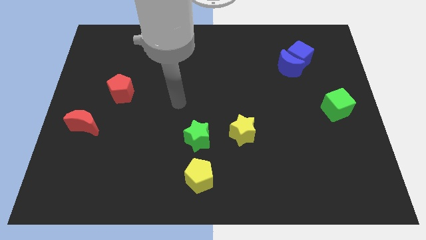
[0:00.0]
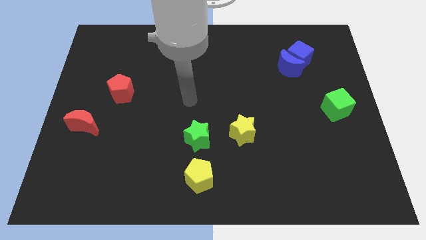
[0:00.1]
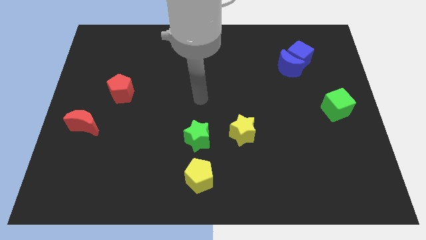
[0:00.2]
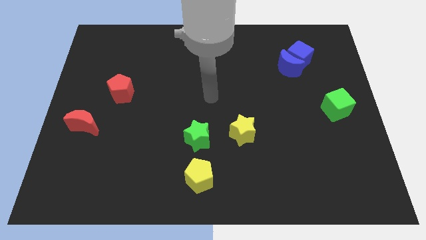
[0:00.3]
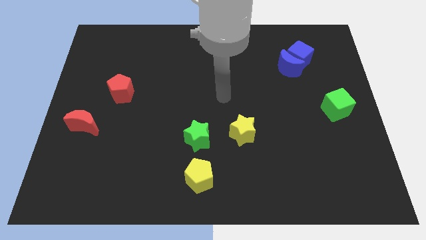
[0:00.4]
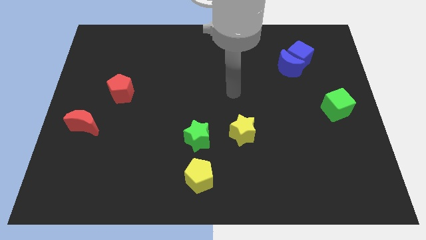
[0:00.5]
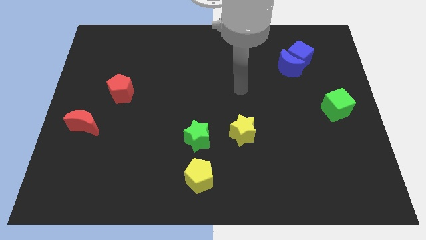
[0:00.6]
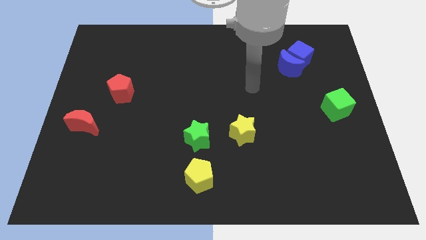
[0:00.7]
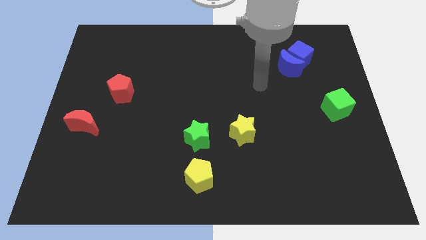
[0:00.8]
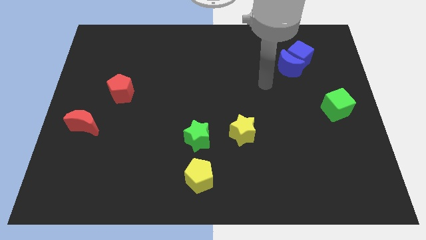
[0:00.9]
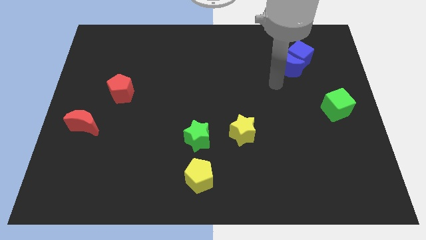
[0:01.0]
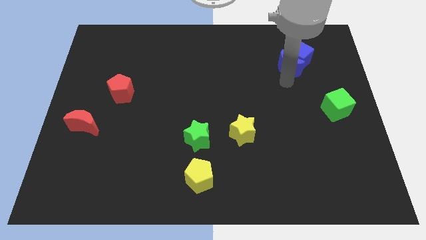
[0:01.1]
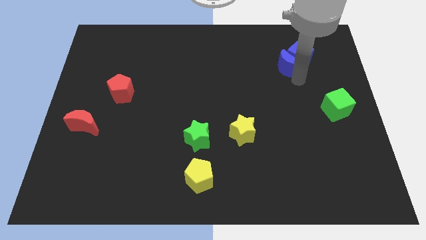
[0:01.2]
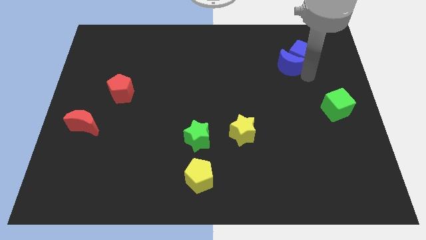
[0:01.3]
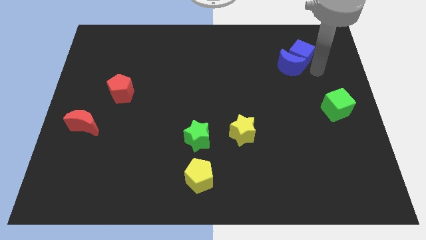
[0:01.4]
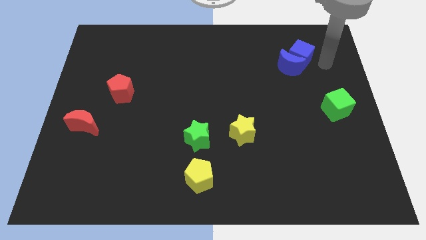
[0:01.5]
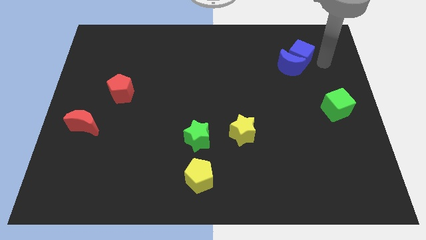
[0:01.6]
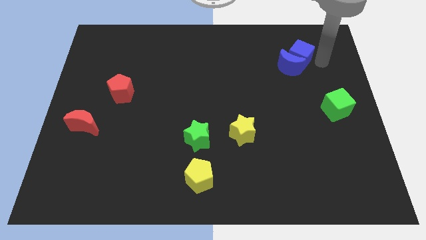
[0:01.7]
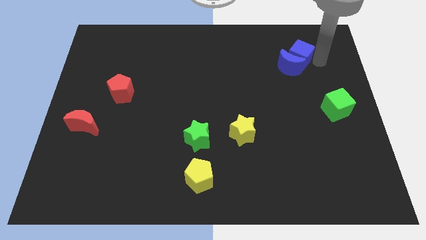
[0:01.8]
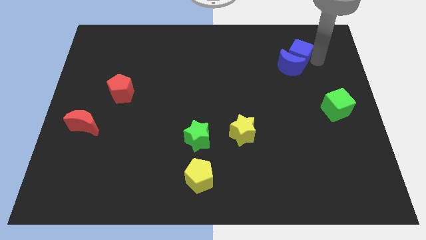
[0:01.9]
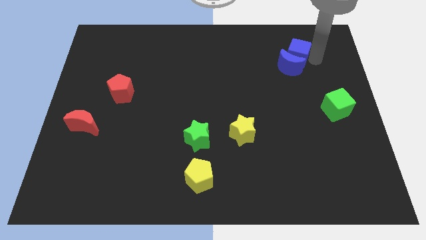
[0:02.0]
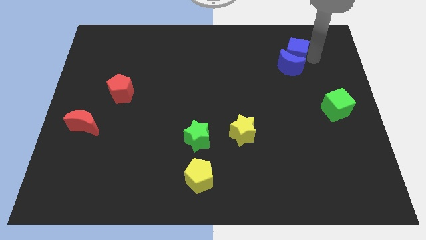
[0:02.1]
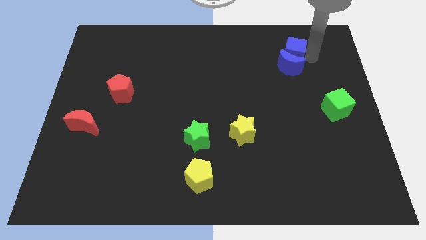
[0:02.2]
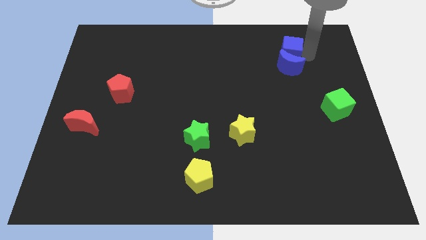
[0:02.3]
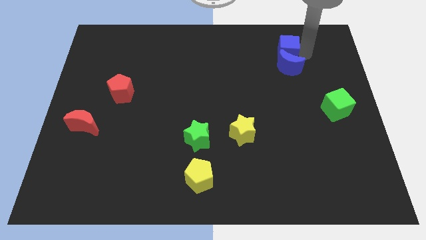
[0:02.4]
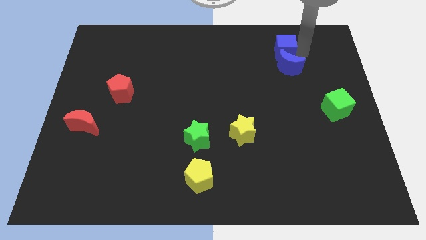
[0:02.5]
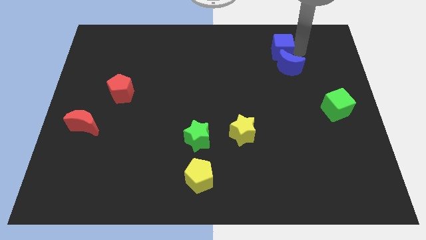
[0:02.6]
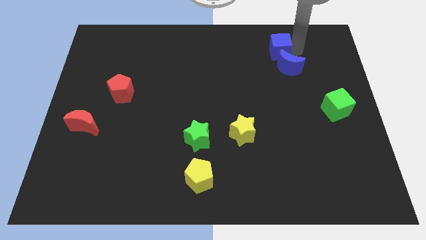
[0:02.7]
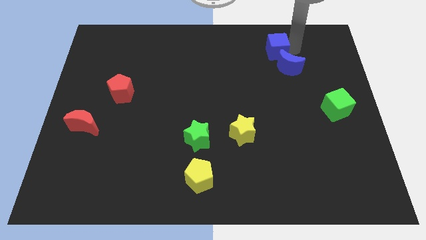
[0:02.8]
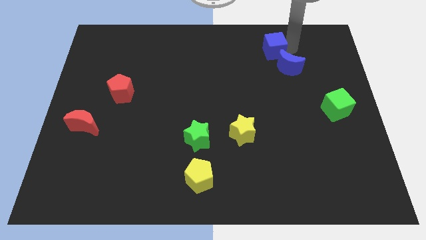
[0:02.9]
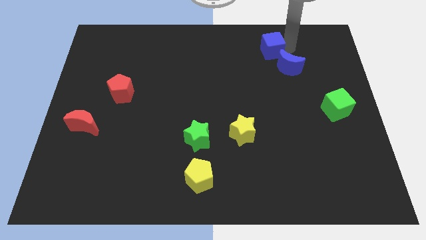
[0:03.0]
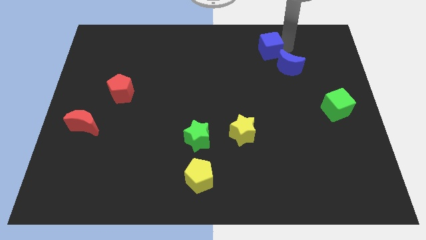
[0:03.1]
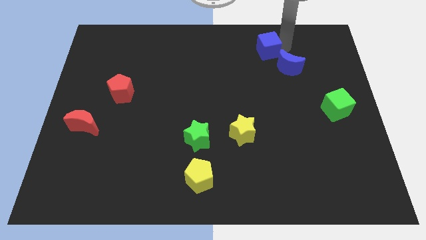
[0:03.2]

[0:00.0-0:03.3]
push the blue cube a little bit left

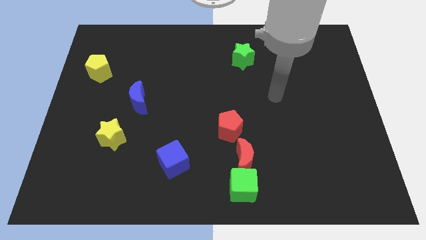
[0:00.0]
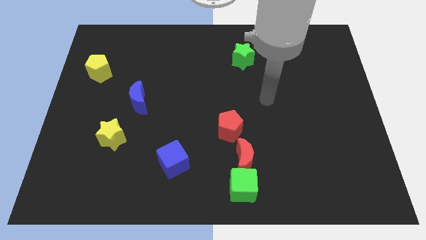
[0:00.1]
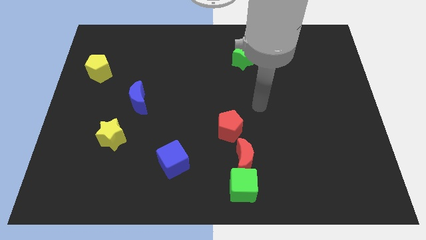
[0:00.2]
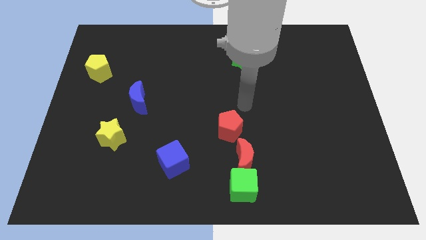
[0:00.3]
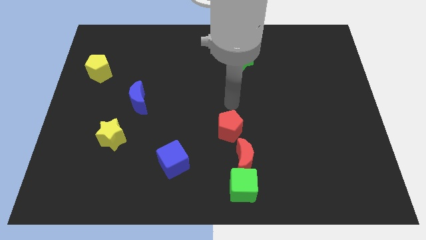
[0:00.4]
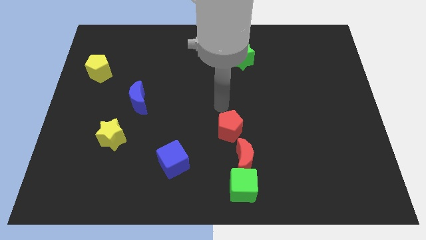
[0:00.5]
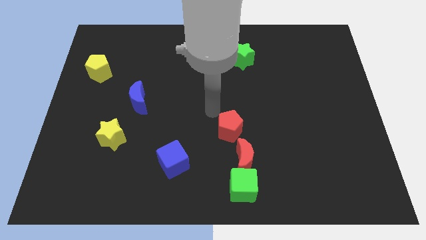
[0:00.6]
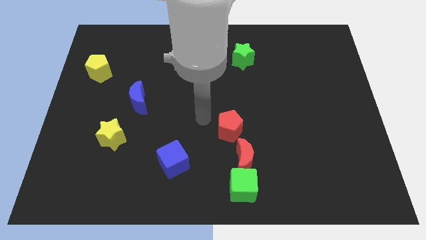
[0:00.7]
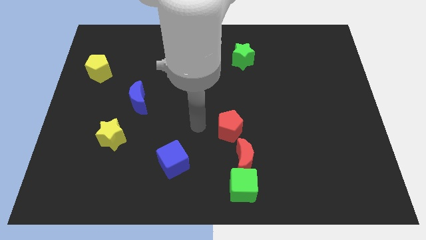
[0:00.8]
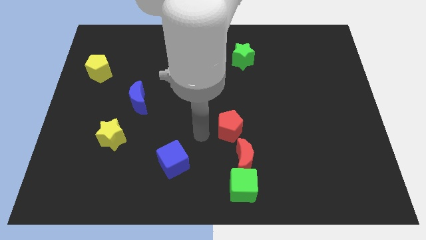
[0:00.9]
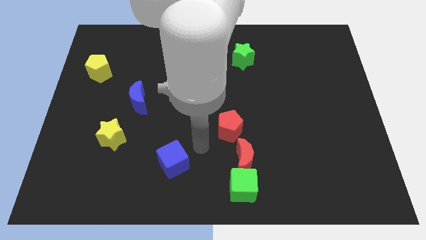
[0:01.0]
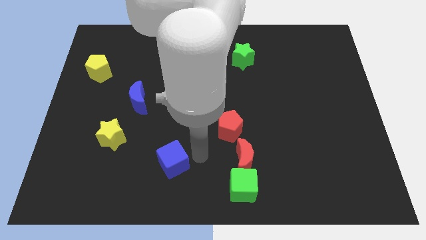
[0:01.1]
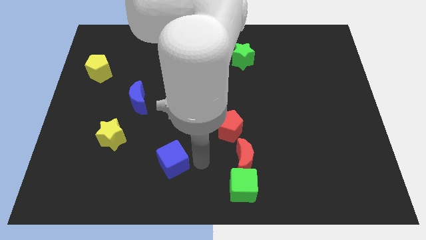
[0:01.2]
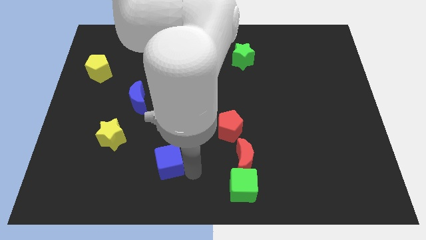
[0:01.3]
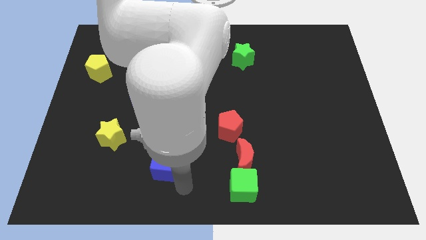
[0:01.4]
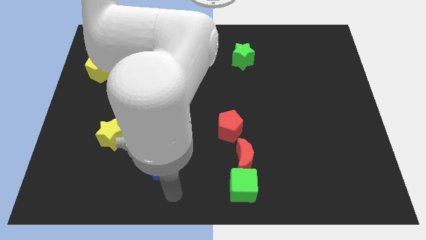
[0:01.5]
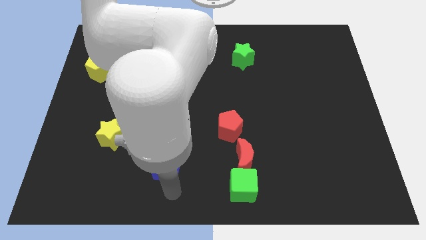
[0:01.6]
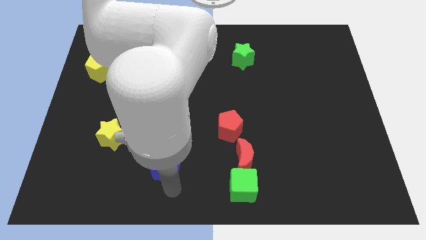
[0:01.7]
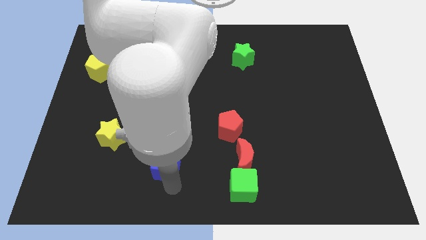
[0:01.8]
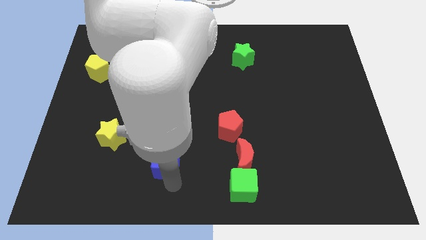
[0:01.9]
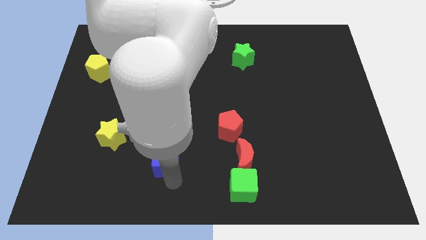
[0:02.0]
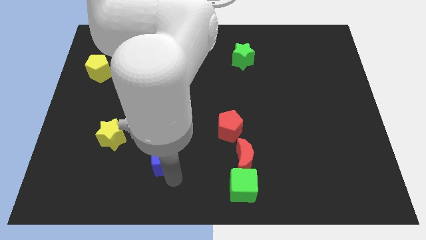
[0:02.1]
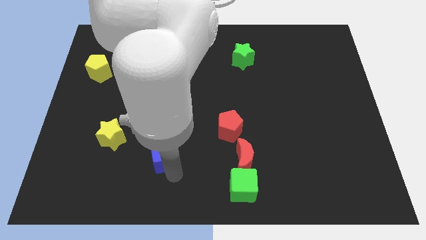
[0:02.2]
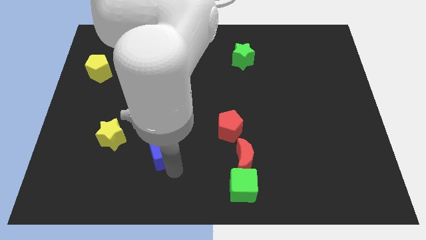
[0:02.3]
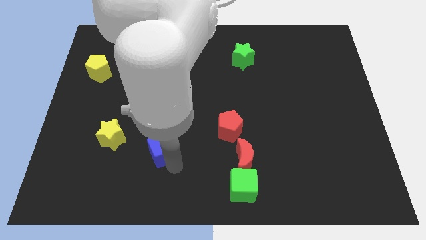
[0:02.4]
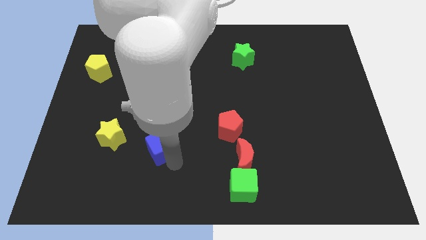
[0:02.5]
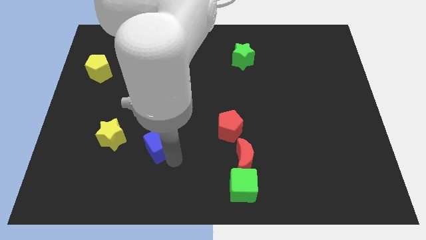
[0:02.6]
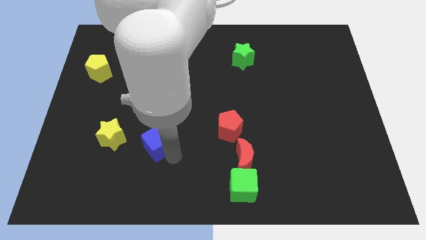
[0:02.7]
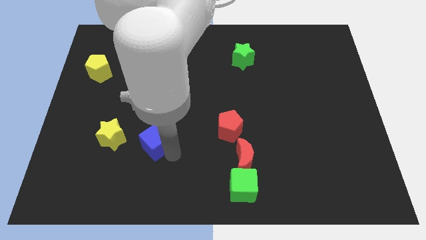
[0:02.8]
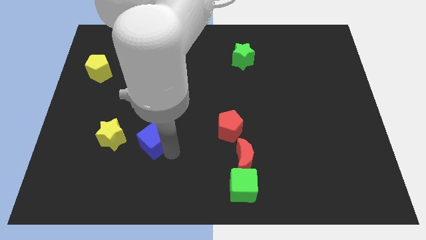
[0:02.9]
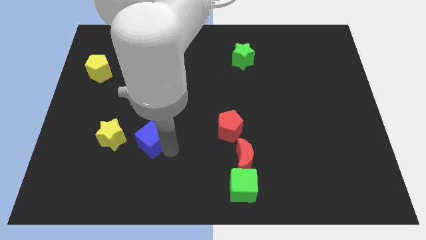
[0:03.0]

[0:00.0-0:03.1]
push the blue cube upwards and left diagonally slightly

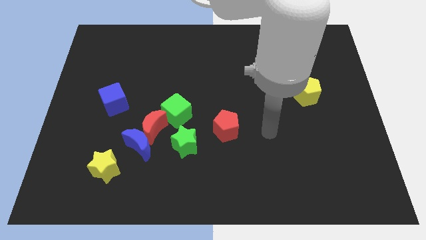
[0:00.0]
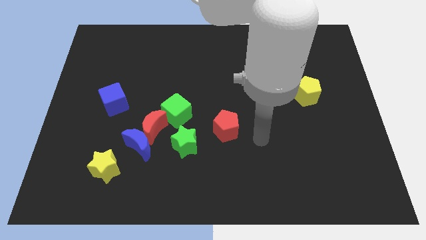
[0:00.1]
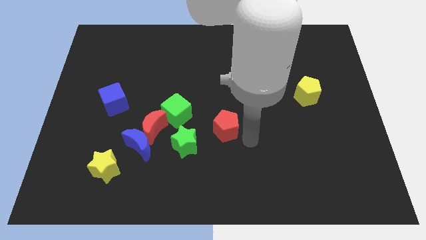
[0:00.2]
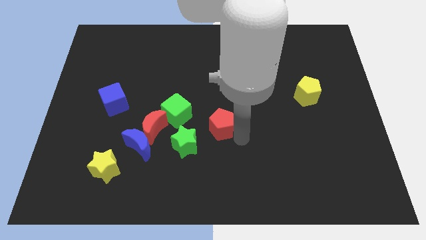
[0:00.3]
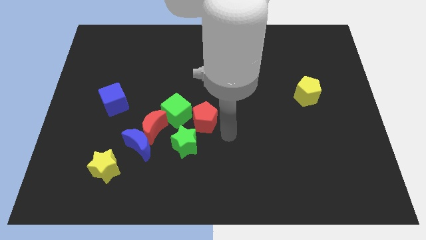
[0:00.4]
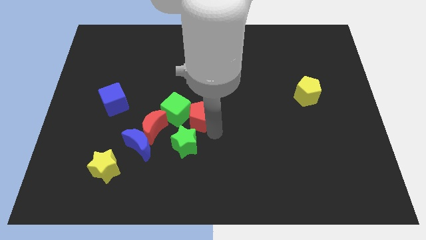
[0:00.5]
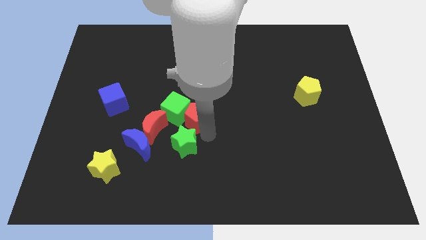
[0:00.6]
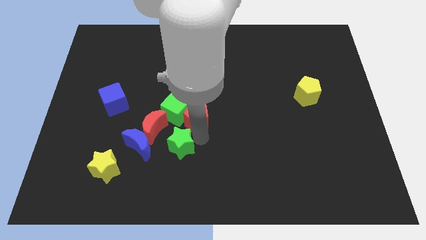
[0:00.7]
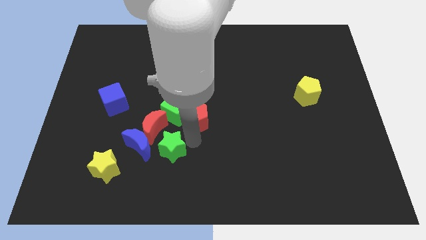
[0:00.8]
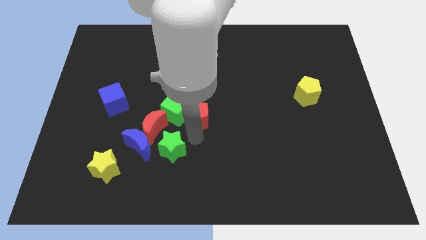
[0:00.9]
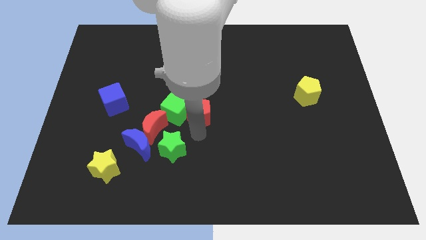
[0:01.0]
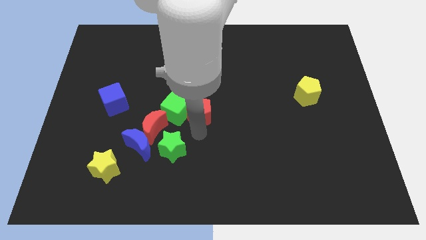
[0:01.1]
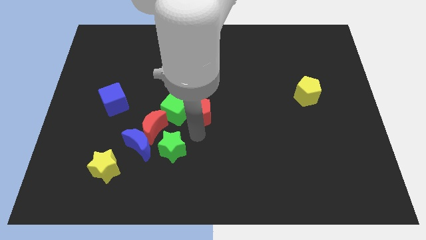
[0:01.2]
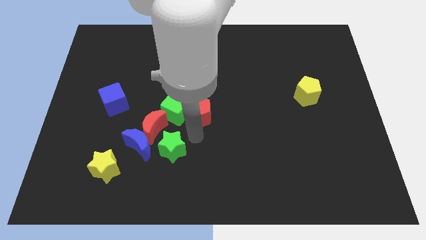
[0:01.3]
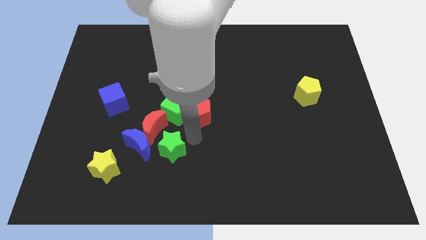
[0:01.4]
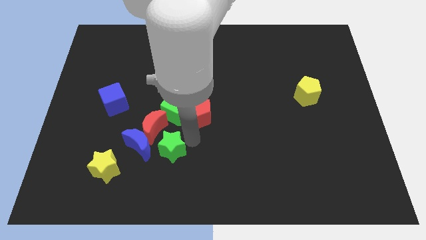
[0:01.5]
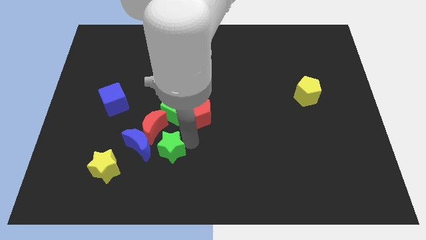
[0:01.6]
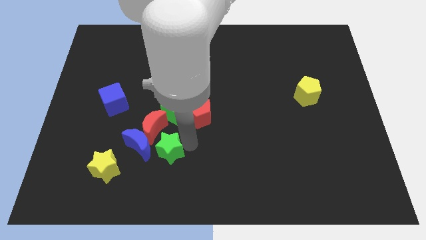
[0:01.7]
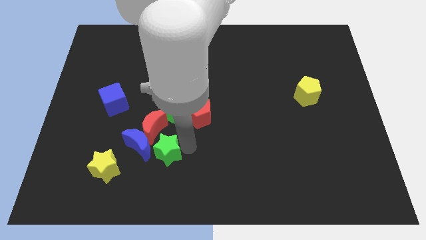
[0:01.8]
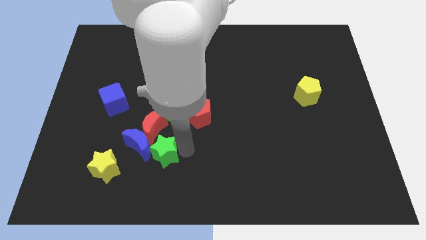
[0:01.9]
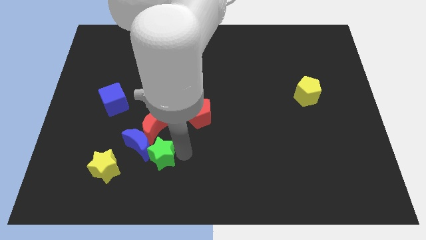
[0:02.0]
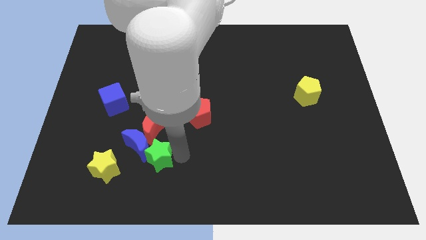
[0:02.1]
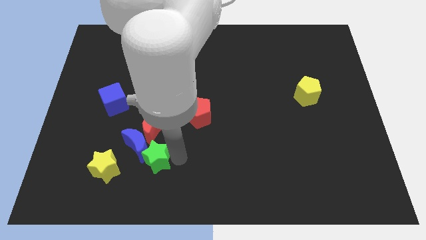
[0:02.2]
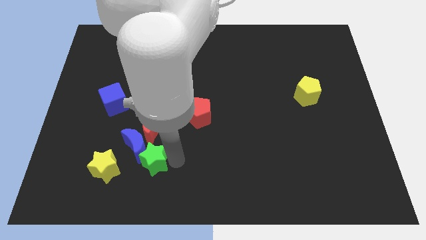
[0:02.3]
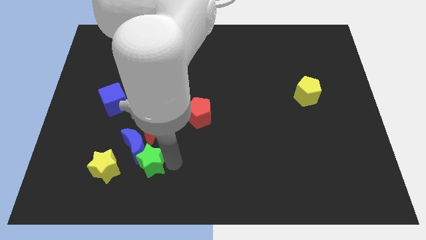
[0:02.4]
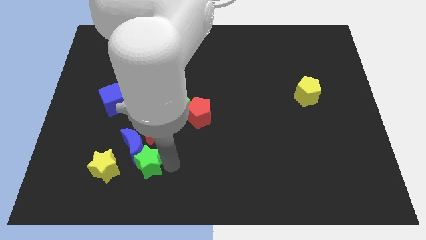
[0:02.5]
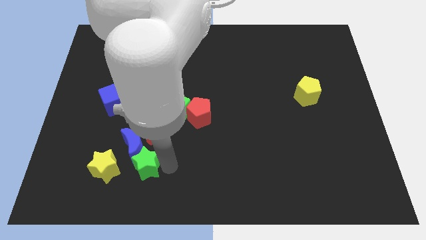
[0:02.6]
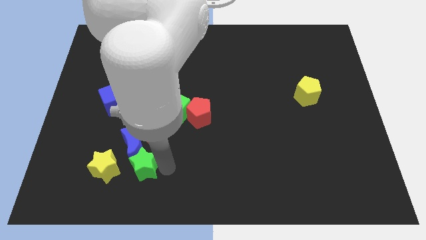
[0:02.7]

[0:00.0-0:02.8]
move the green star somewhat left
